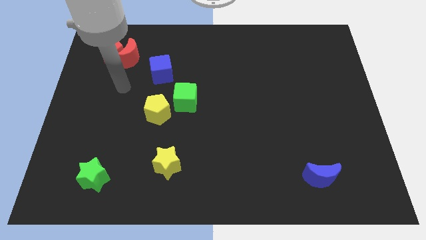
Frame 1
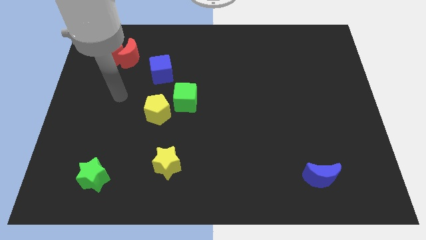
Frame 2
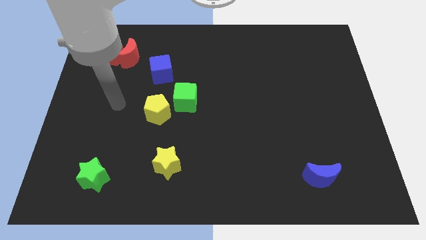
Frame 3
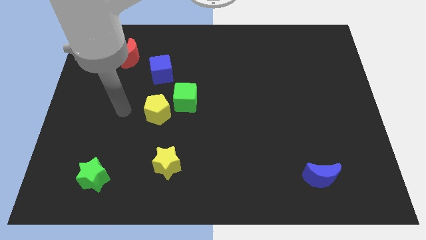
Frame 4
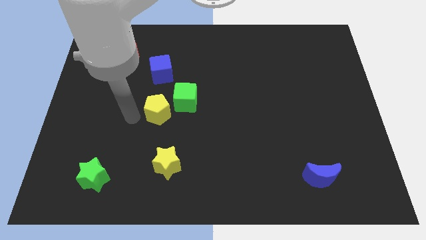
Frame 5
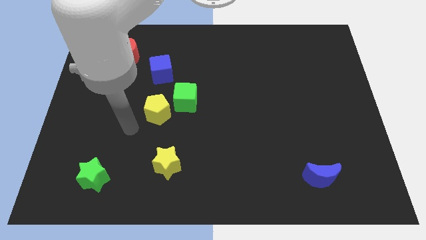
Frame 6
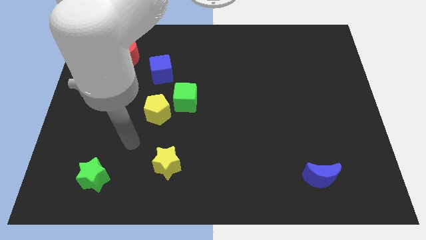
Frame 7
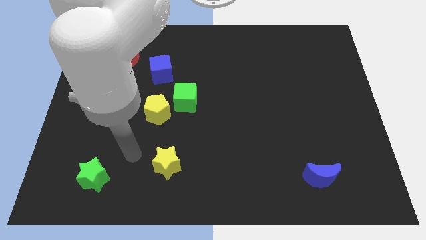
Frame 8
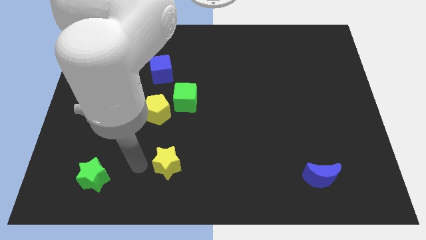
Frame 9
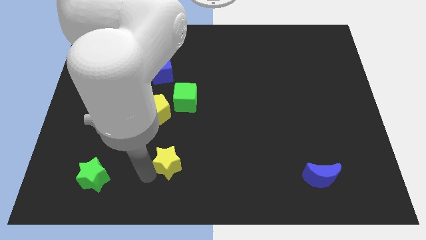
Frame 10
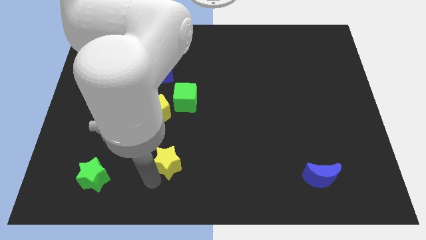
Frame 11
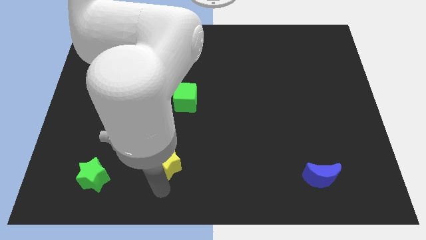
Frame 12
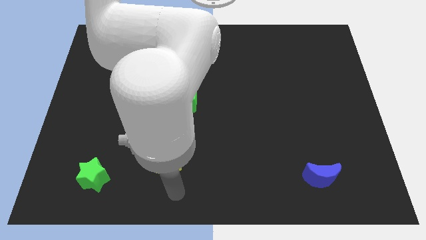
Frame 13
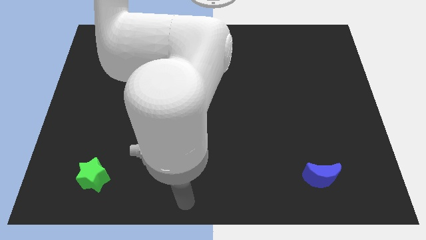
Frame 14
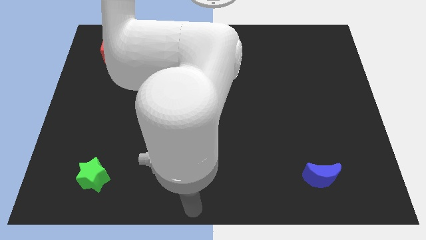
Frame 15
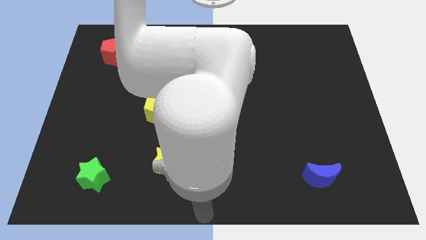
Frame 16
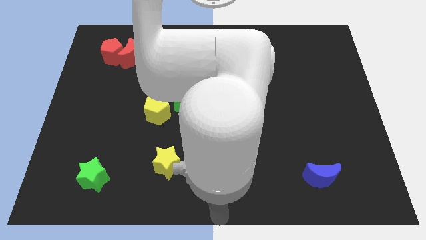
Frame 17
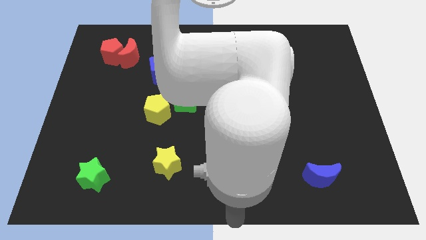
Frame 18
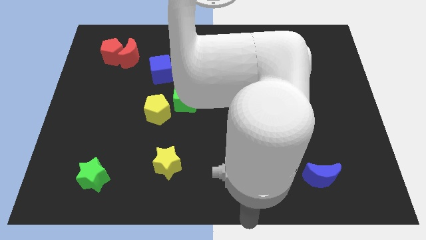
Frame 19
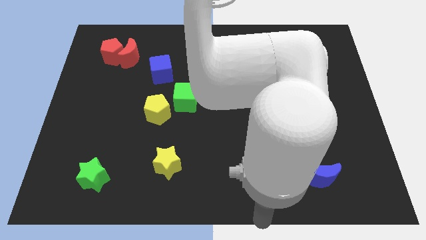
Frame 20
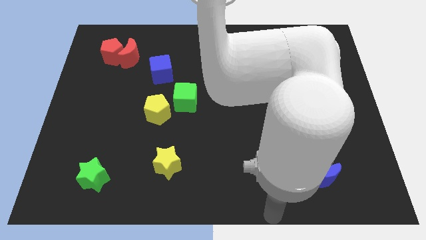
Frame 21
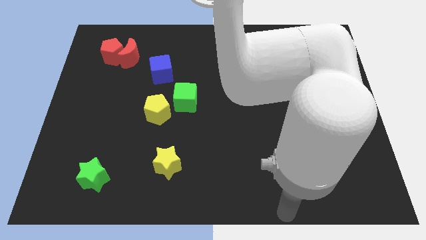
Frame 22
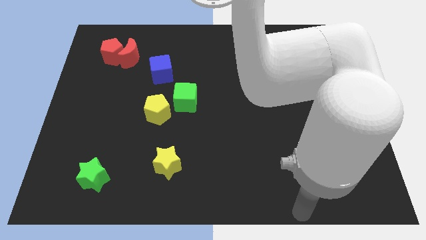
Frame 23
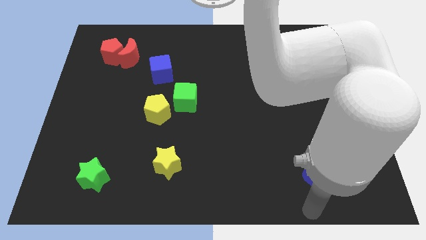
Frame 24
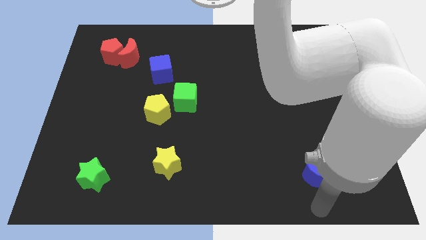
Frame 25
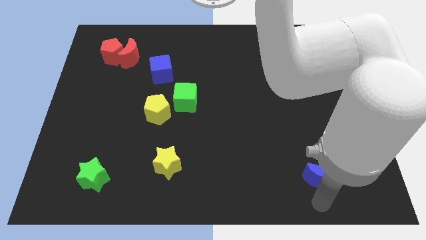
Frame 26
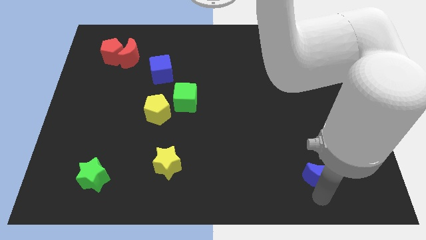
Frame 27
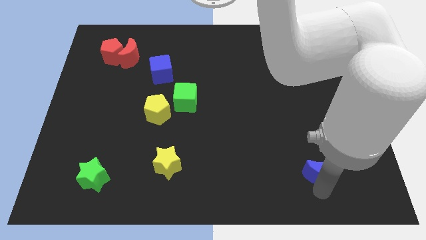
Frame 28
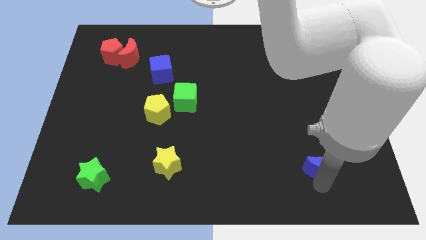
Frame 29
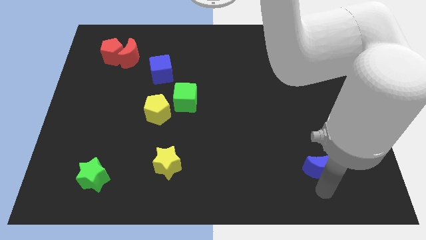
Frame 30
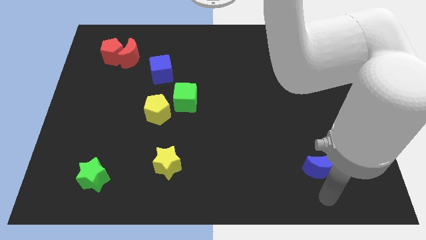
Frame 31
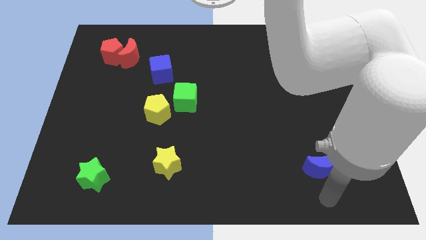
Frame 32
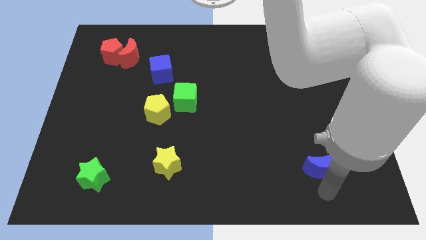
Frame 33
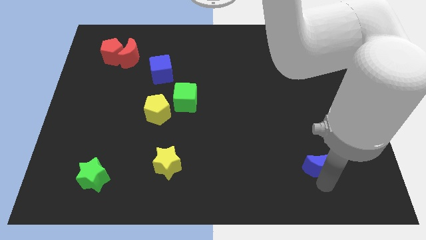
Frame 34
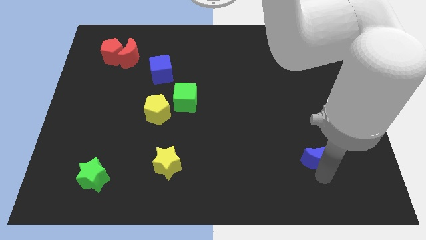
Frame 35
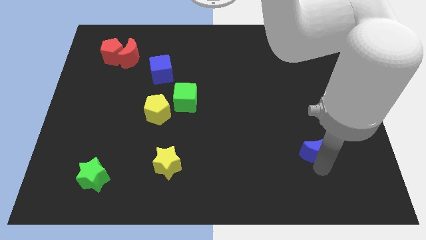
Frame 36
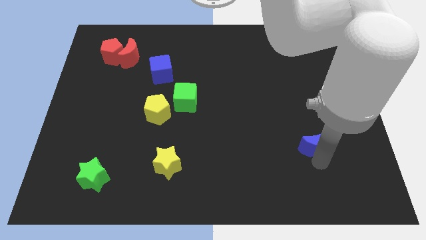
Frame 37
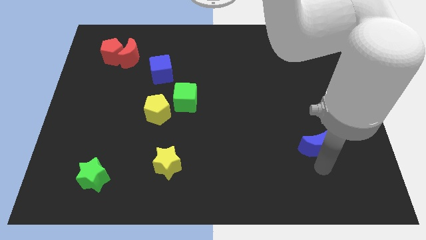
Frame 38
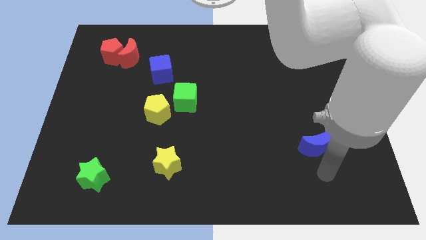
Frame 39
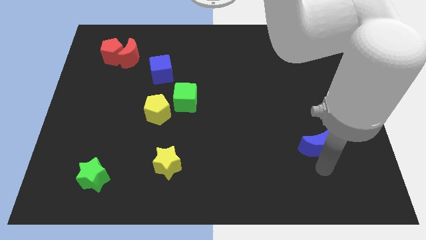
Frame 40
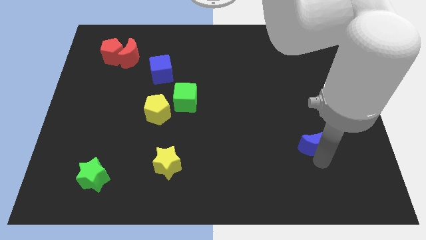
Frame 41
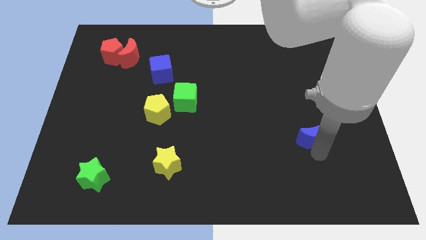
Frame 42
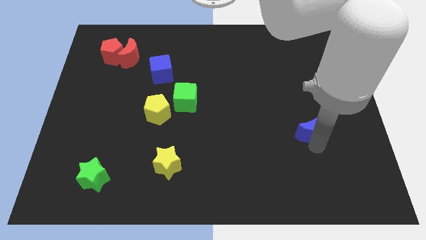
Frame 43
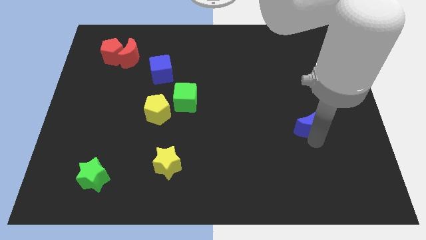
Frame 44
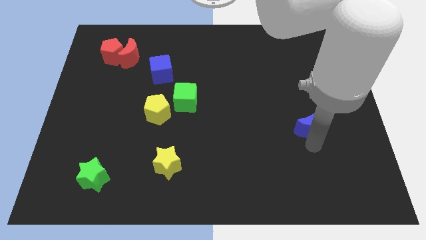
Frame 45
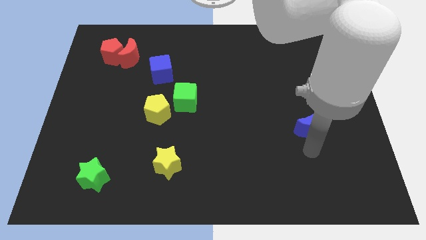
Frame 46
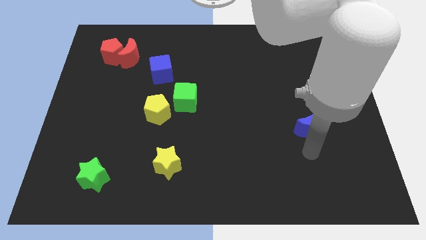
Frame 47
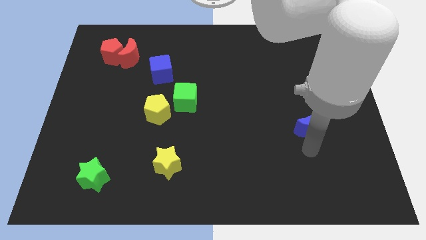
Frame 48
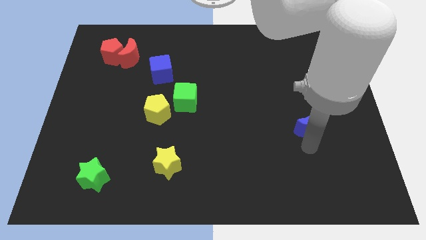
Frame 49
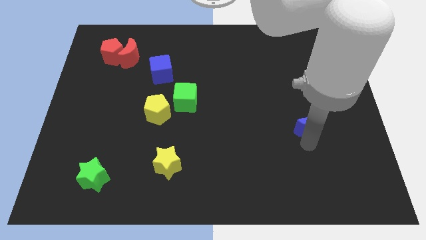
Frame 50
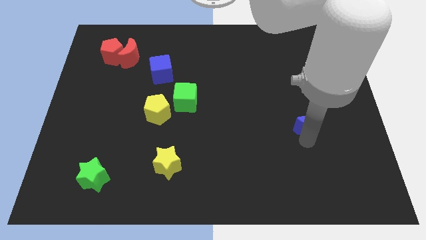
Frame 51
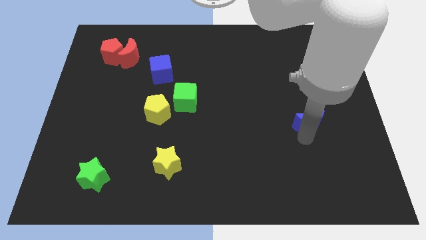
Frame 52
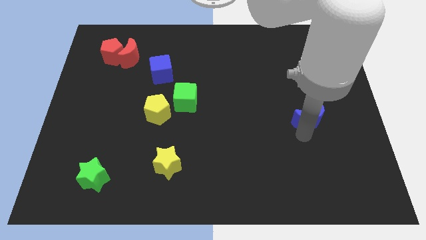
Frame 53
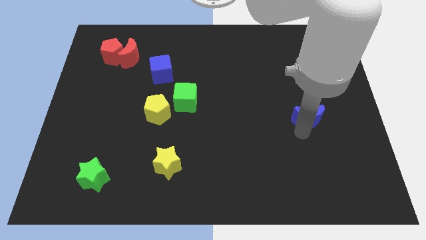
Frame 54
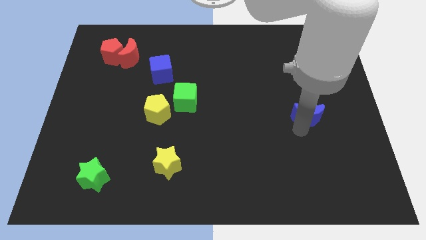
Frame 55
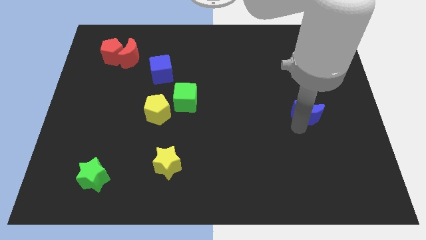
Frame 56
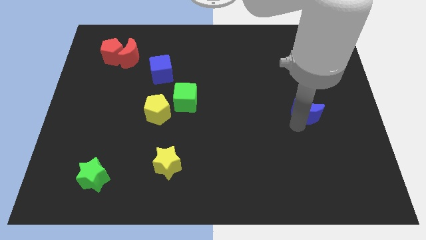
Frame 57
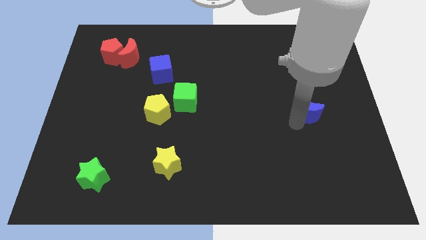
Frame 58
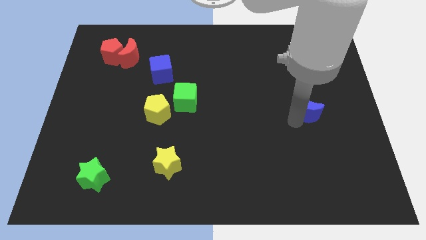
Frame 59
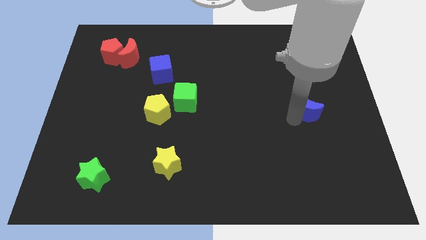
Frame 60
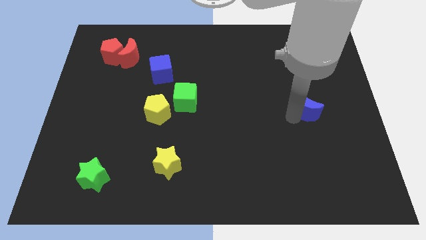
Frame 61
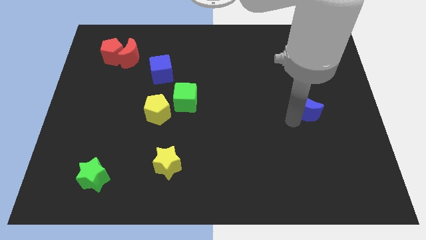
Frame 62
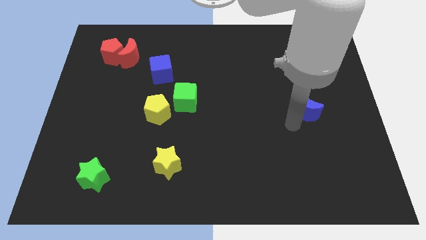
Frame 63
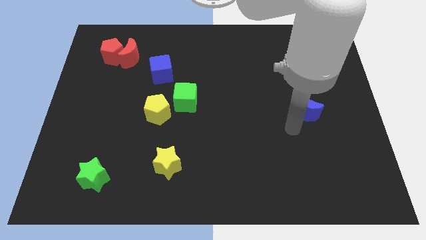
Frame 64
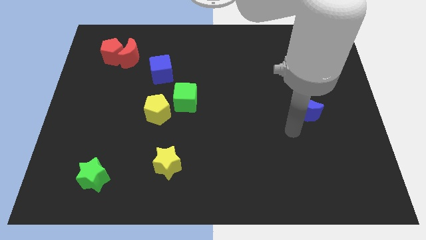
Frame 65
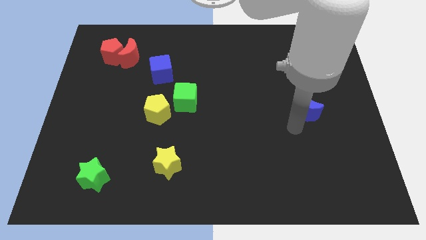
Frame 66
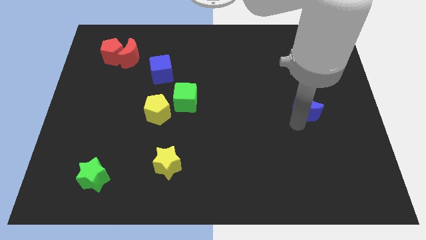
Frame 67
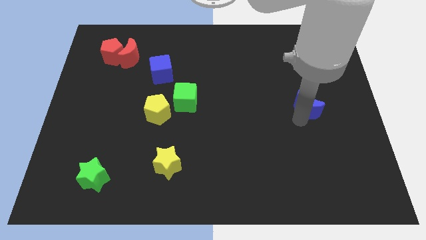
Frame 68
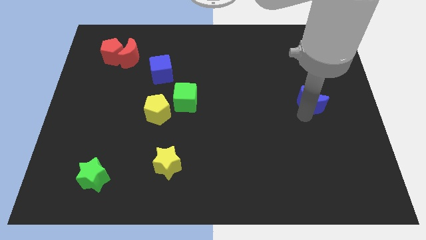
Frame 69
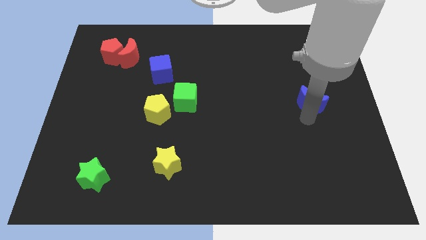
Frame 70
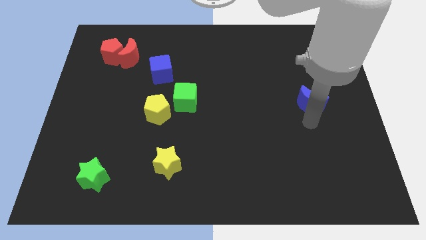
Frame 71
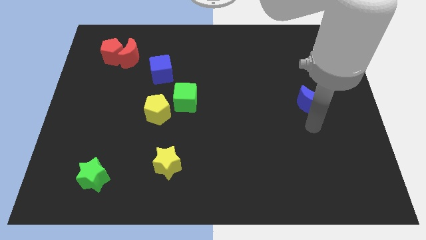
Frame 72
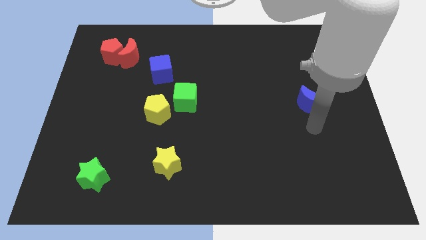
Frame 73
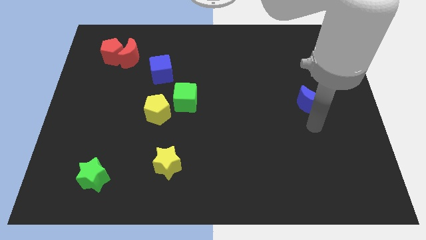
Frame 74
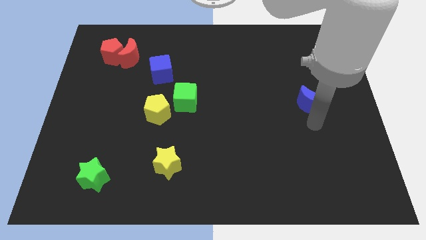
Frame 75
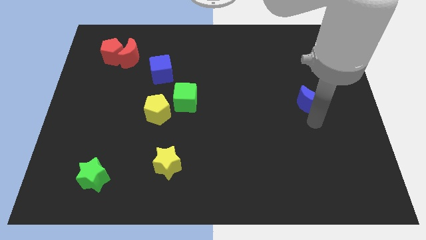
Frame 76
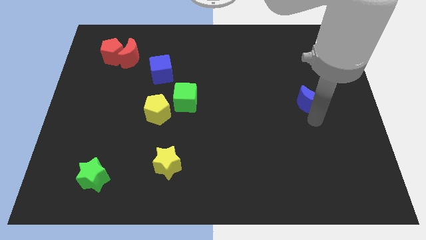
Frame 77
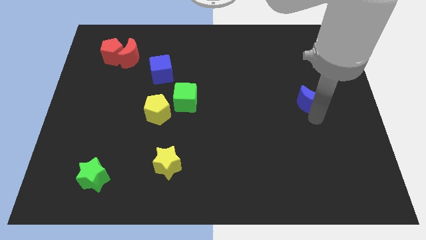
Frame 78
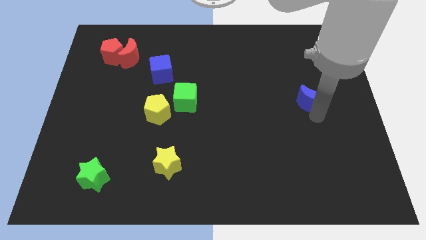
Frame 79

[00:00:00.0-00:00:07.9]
move the blue moon upwards

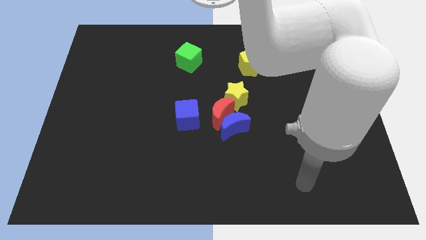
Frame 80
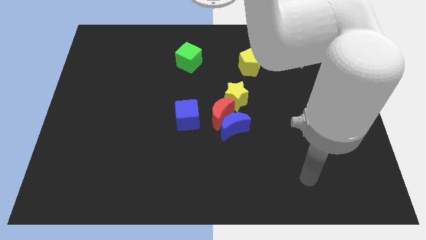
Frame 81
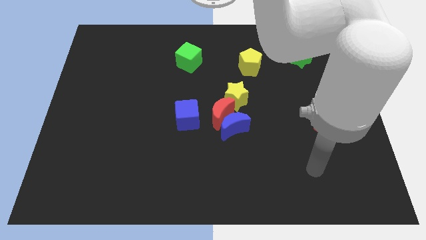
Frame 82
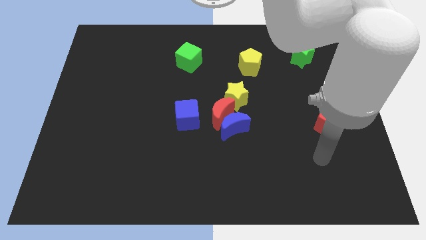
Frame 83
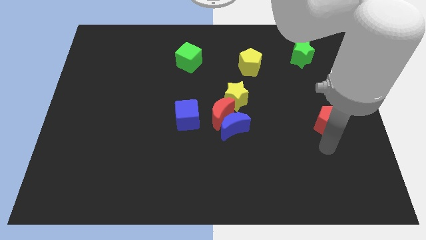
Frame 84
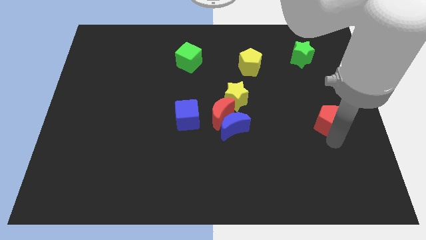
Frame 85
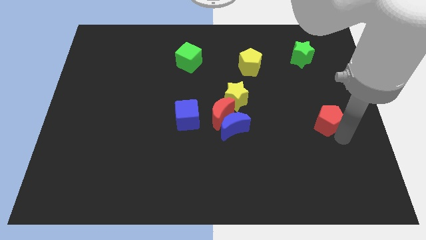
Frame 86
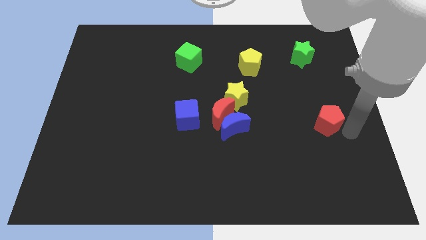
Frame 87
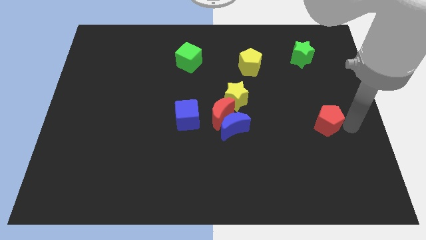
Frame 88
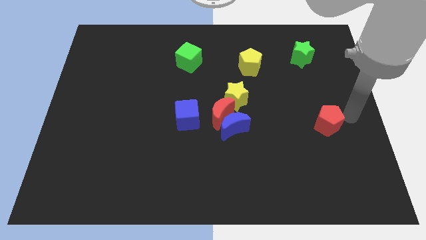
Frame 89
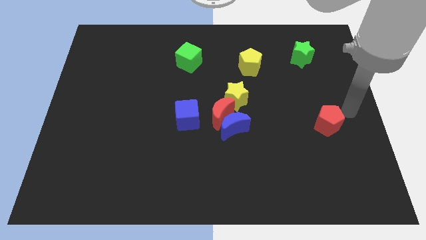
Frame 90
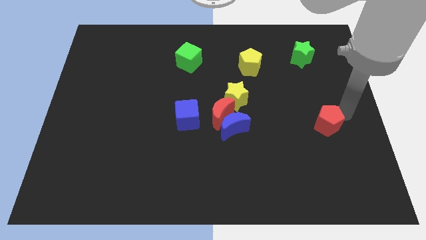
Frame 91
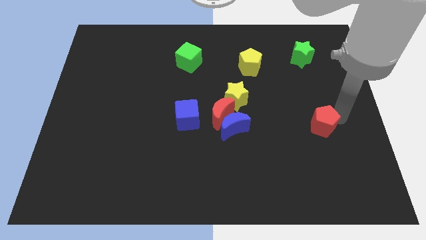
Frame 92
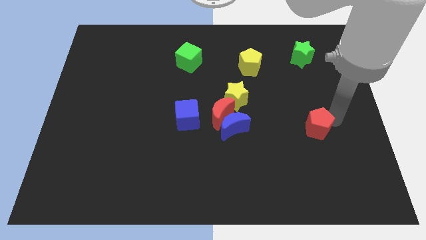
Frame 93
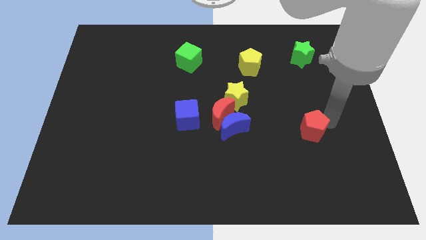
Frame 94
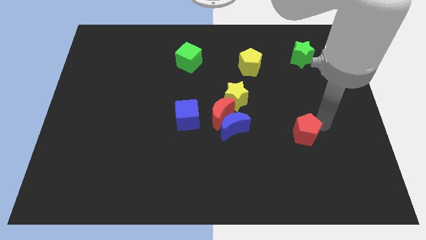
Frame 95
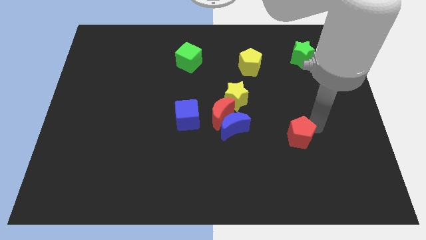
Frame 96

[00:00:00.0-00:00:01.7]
push the red pentagon a little bit downwards and left
